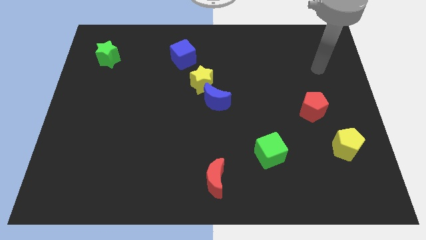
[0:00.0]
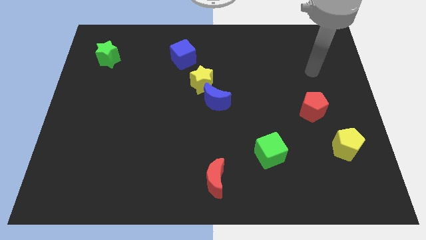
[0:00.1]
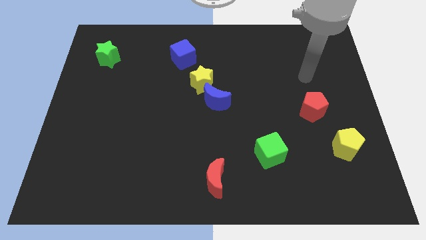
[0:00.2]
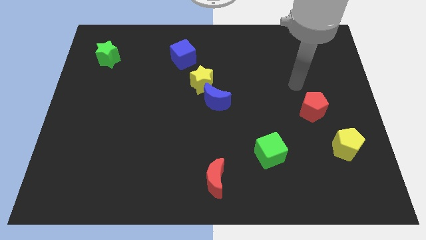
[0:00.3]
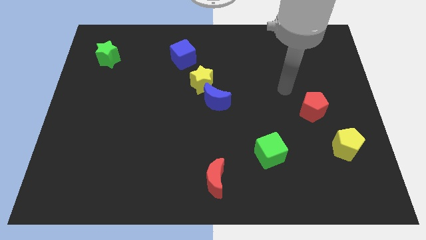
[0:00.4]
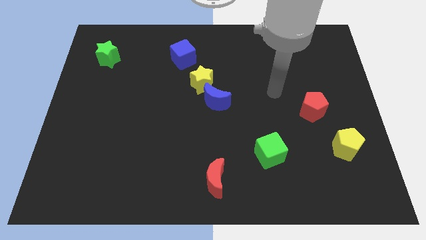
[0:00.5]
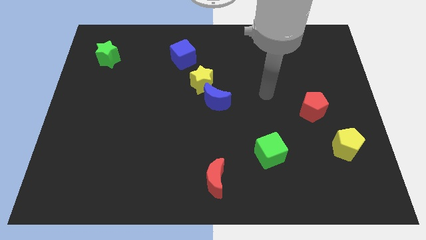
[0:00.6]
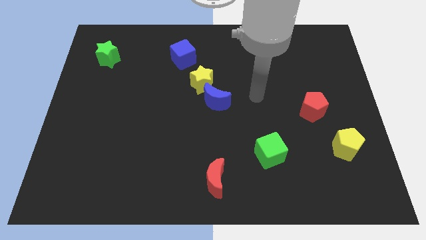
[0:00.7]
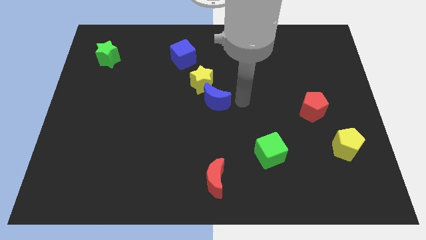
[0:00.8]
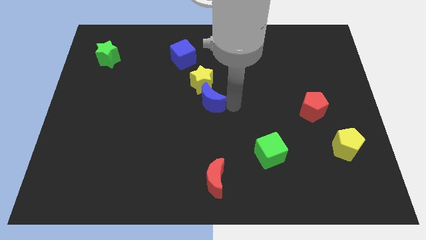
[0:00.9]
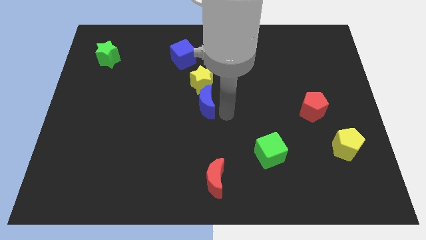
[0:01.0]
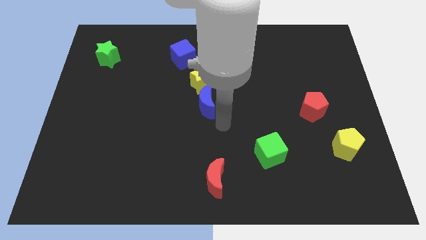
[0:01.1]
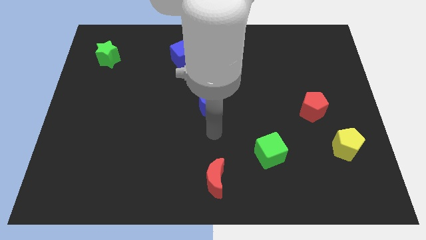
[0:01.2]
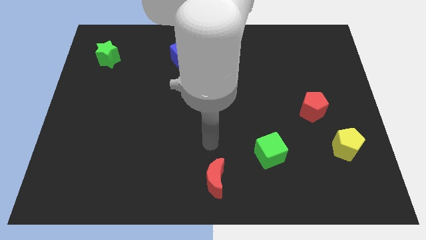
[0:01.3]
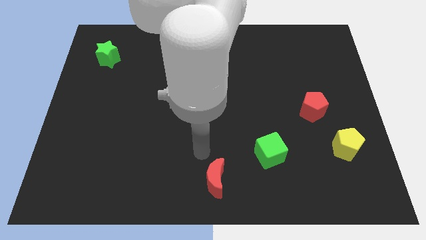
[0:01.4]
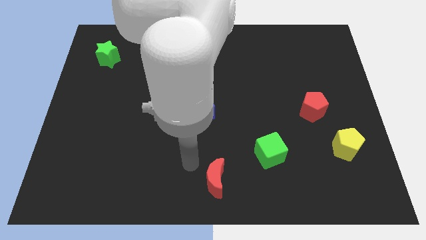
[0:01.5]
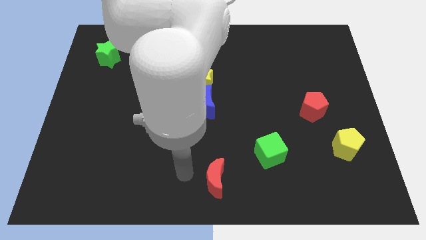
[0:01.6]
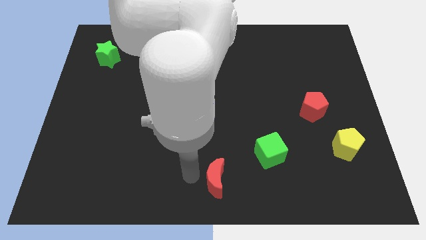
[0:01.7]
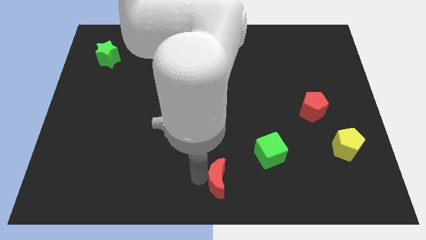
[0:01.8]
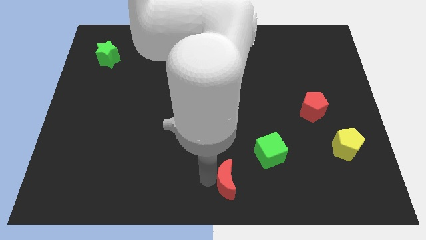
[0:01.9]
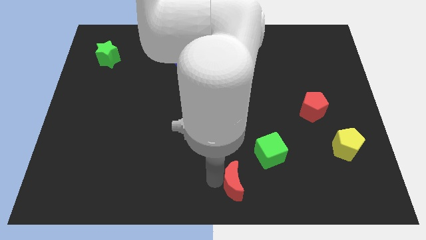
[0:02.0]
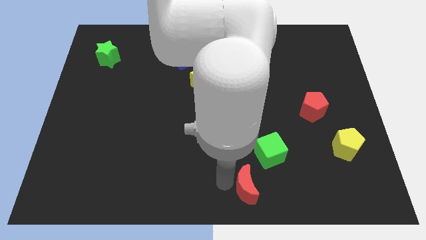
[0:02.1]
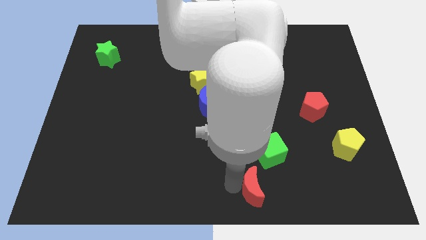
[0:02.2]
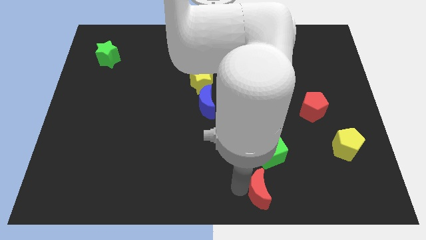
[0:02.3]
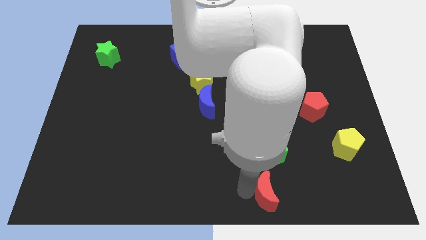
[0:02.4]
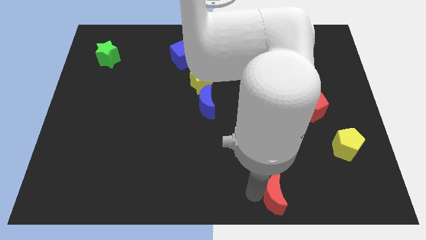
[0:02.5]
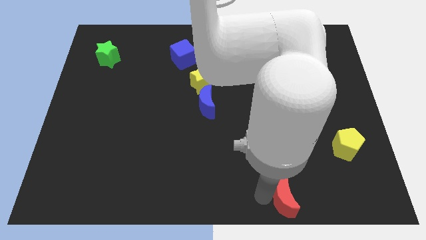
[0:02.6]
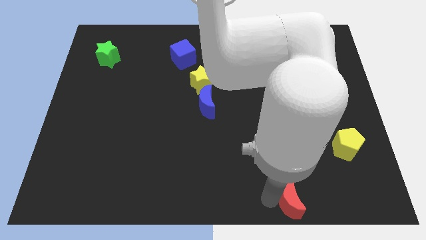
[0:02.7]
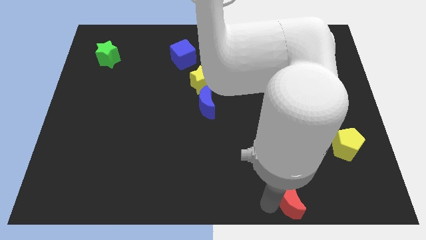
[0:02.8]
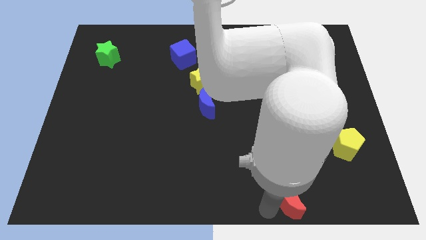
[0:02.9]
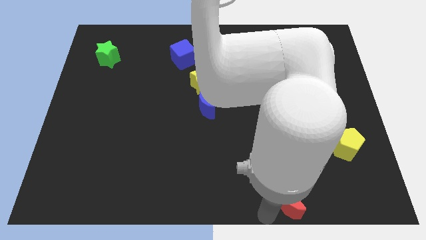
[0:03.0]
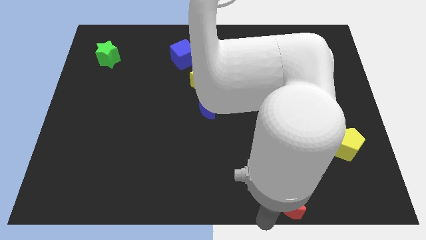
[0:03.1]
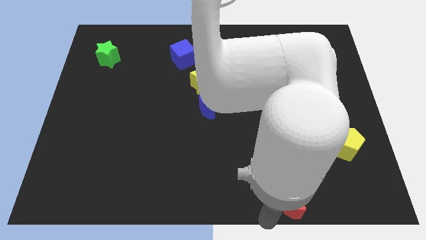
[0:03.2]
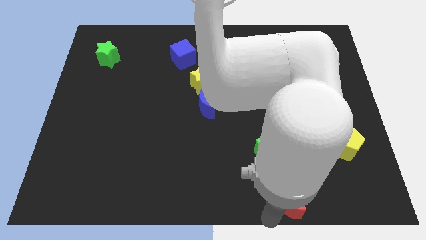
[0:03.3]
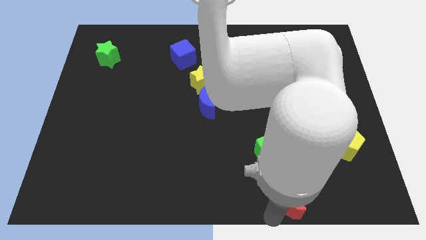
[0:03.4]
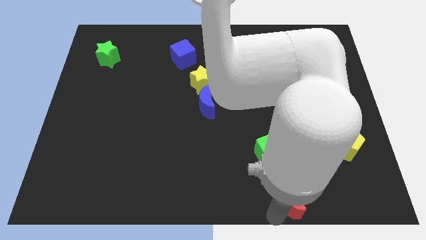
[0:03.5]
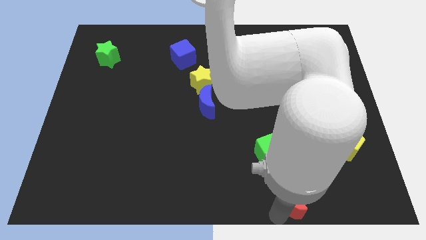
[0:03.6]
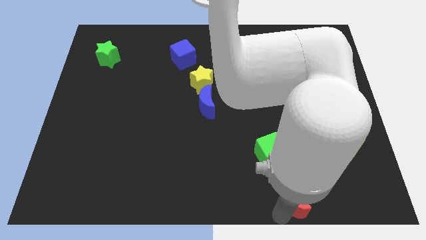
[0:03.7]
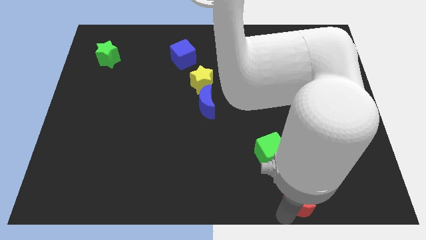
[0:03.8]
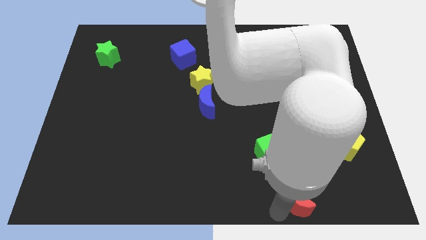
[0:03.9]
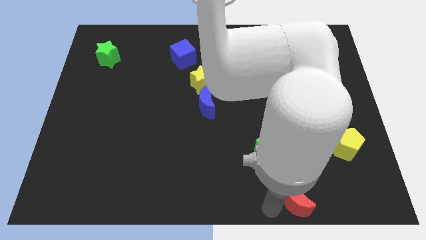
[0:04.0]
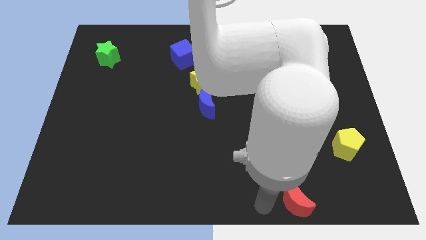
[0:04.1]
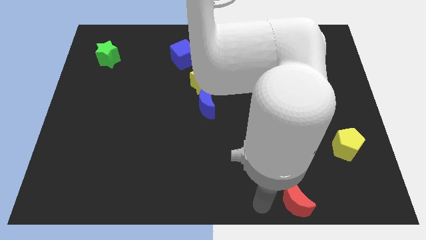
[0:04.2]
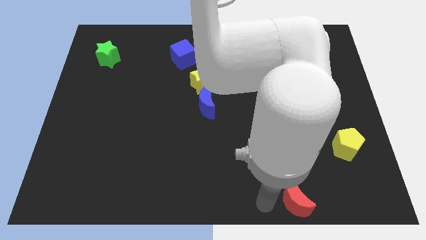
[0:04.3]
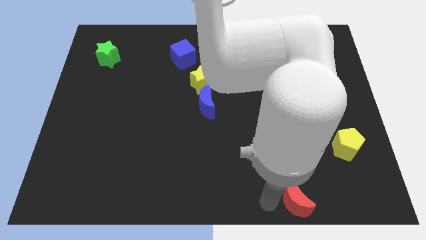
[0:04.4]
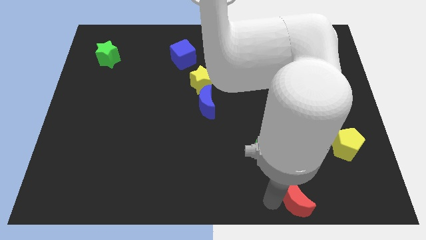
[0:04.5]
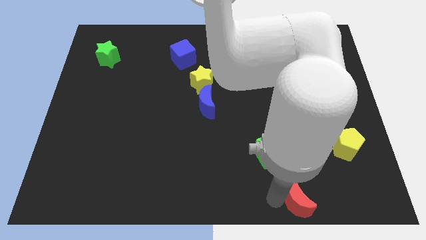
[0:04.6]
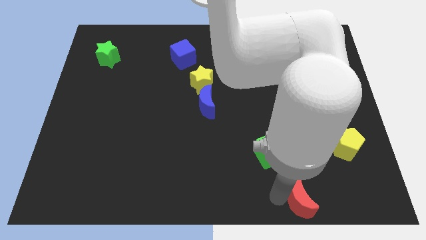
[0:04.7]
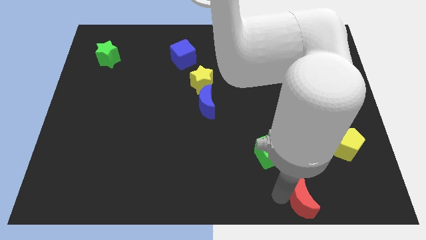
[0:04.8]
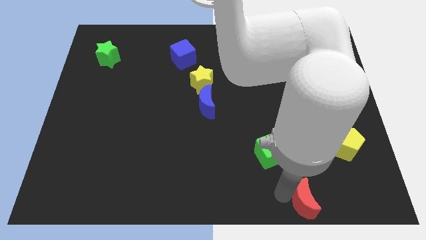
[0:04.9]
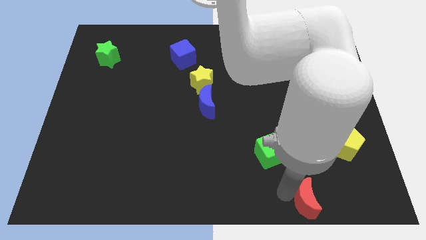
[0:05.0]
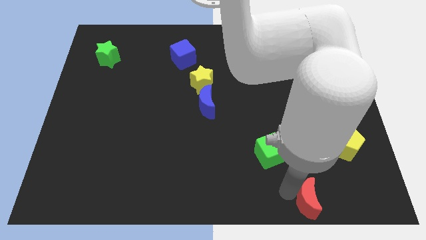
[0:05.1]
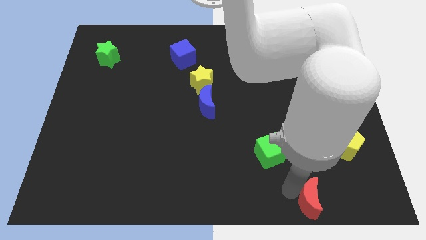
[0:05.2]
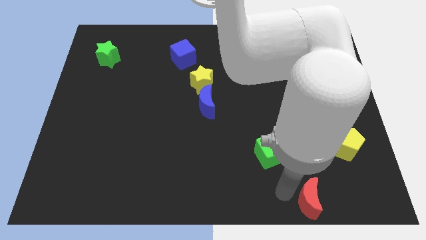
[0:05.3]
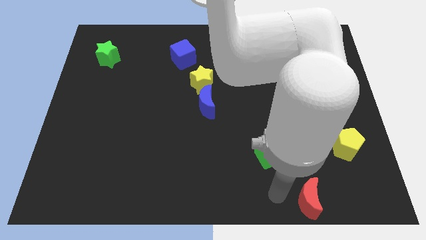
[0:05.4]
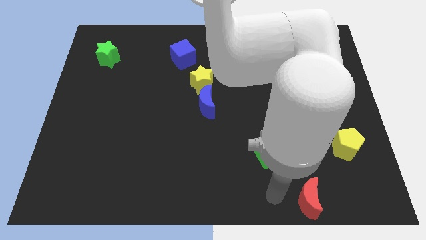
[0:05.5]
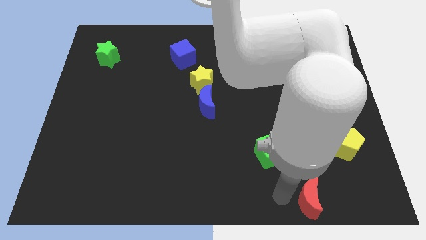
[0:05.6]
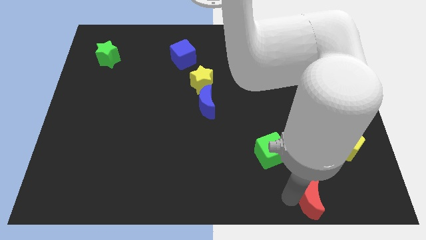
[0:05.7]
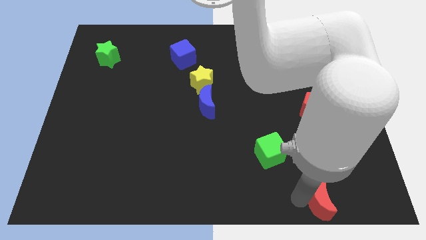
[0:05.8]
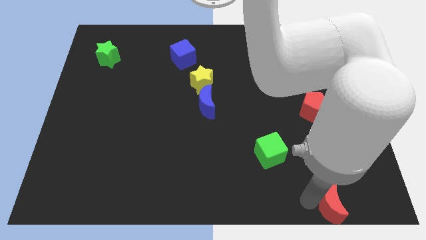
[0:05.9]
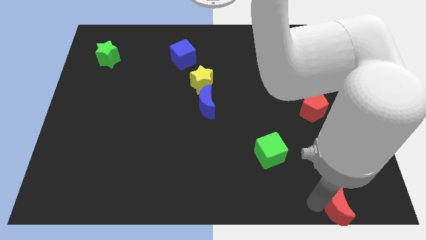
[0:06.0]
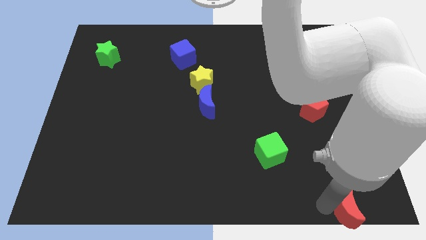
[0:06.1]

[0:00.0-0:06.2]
put the red moon to the bottom right corner
